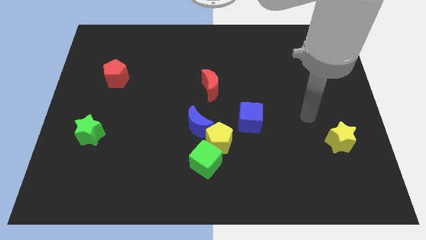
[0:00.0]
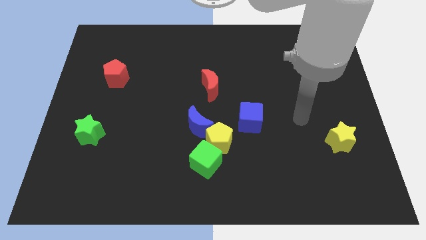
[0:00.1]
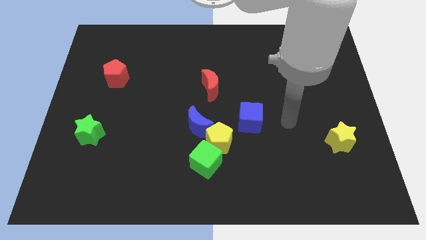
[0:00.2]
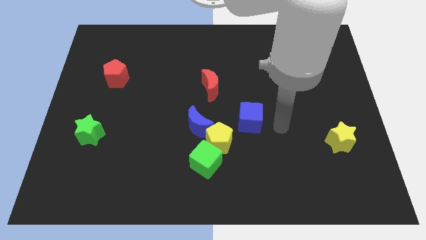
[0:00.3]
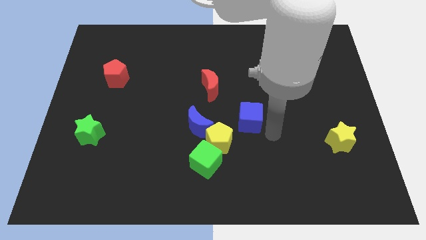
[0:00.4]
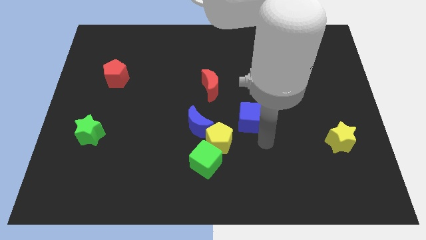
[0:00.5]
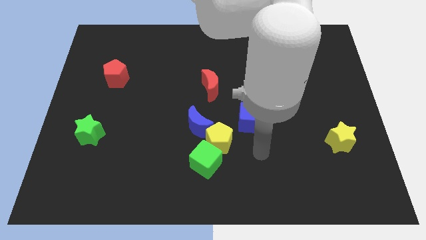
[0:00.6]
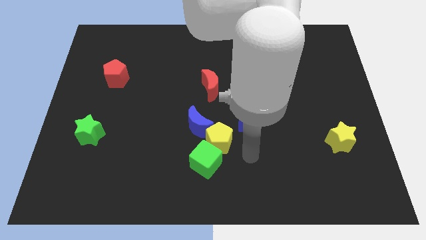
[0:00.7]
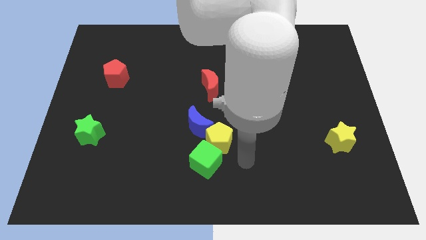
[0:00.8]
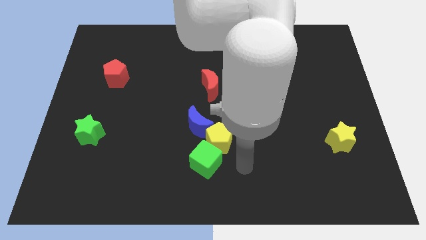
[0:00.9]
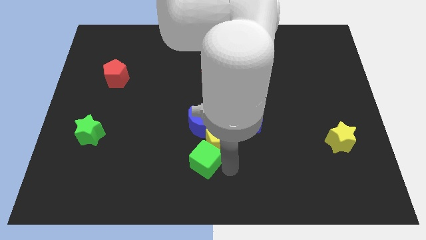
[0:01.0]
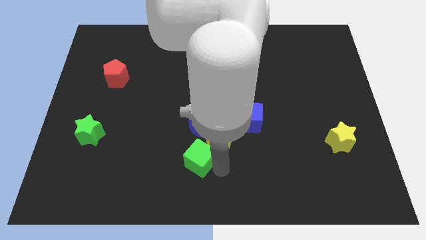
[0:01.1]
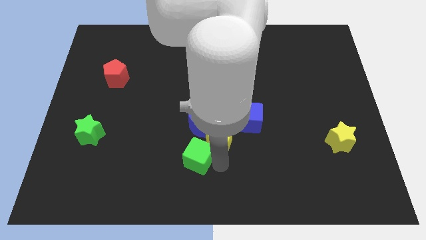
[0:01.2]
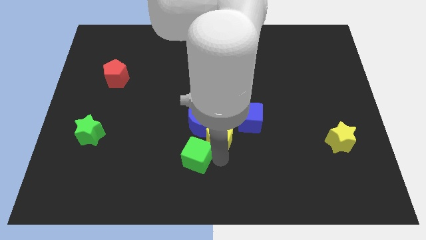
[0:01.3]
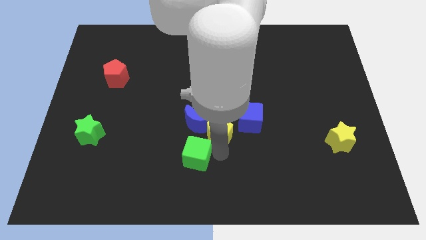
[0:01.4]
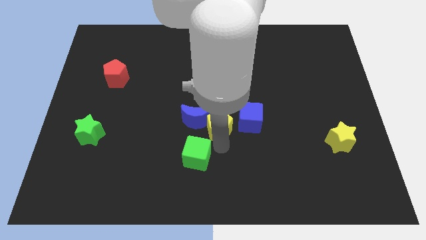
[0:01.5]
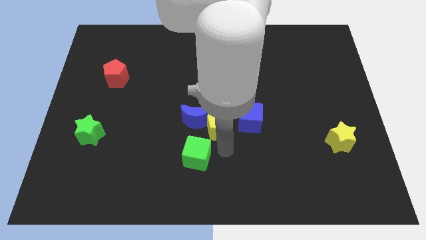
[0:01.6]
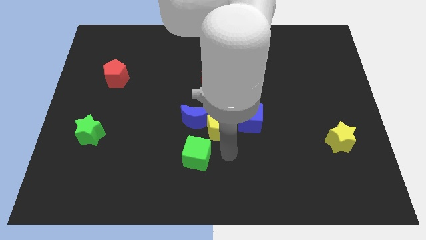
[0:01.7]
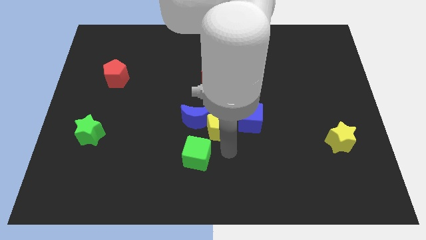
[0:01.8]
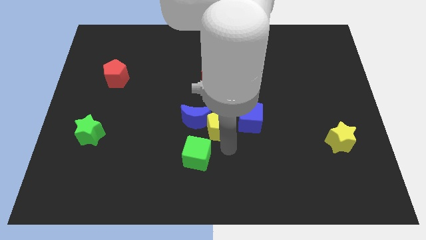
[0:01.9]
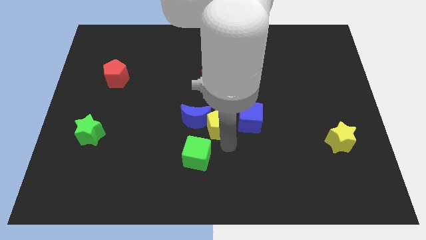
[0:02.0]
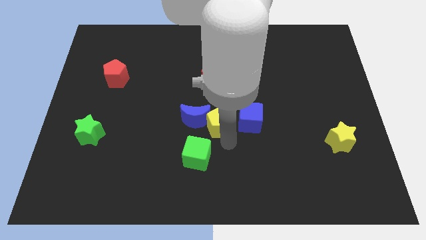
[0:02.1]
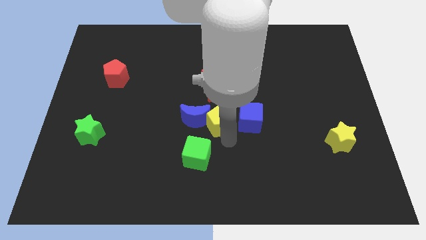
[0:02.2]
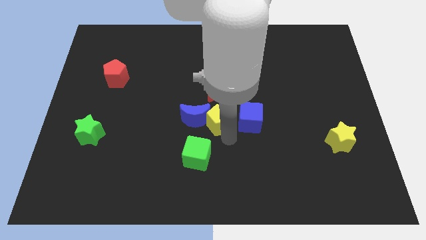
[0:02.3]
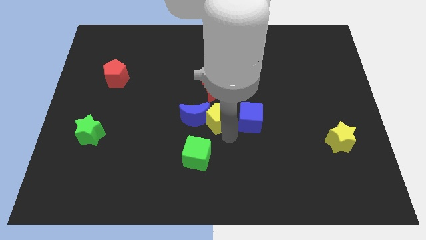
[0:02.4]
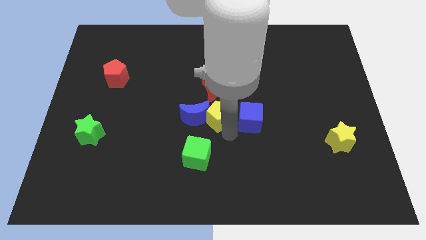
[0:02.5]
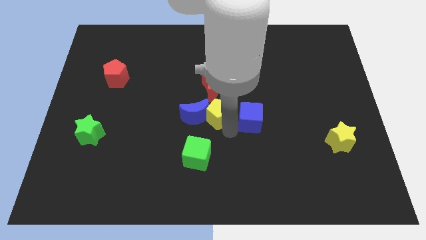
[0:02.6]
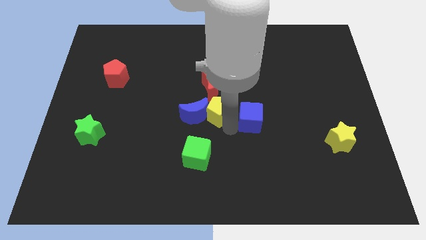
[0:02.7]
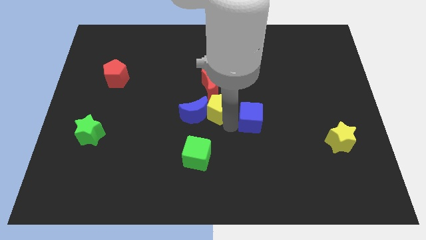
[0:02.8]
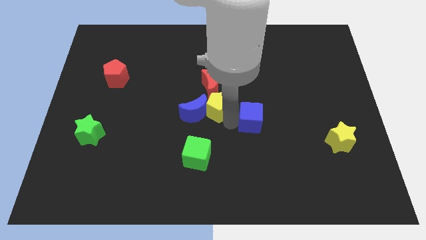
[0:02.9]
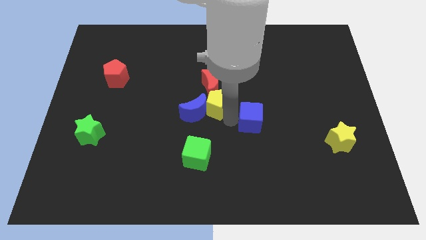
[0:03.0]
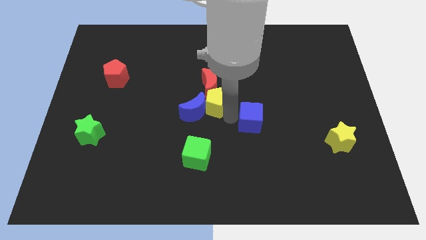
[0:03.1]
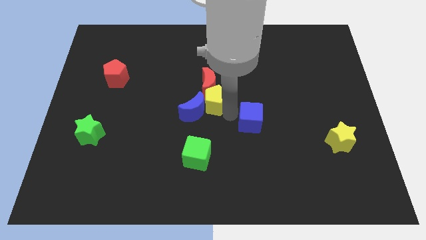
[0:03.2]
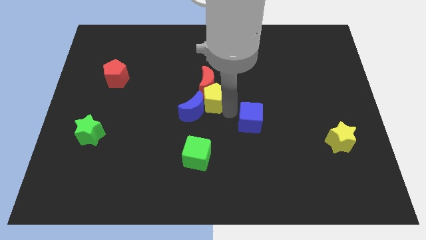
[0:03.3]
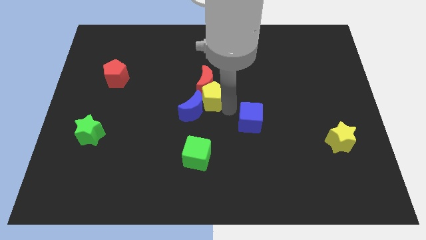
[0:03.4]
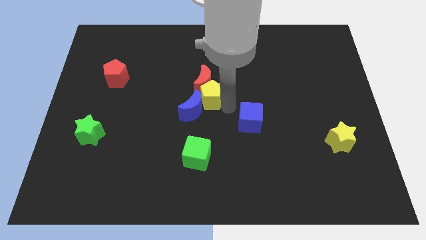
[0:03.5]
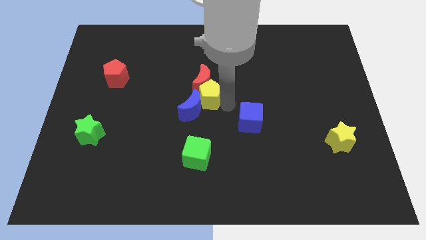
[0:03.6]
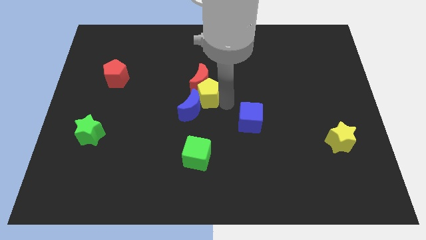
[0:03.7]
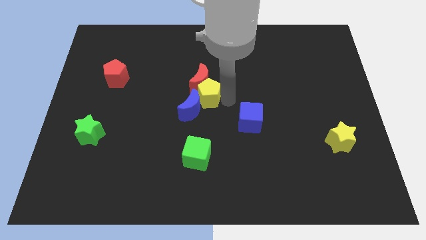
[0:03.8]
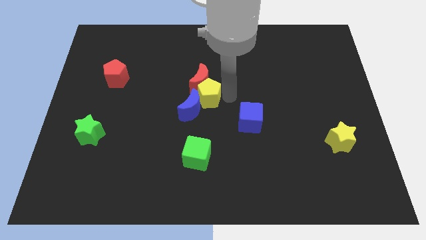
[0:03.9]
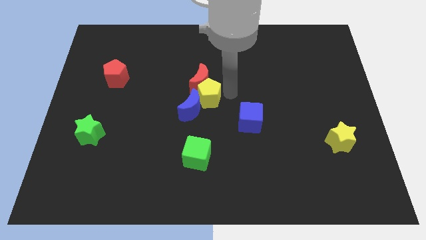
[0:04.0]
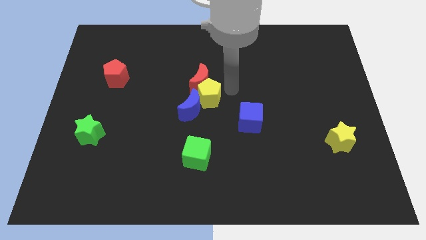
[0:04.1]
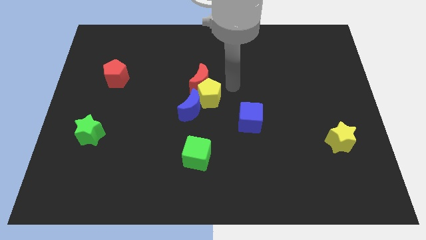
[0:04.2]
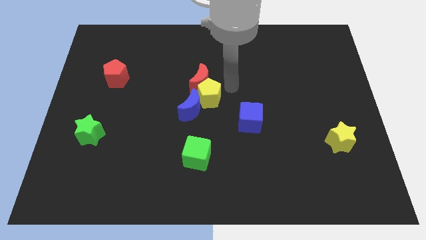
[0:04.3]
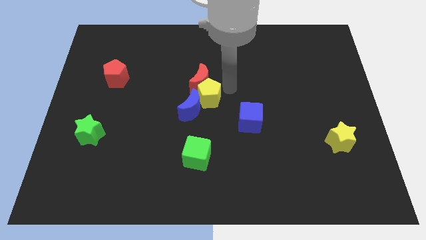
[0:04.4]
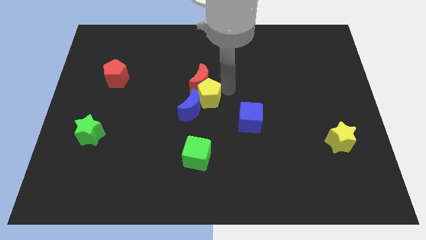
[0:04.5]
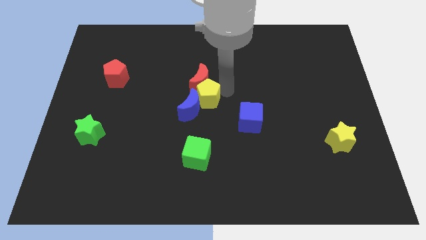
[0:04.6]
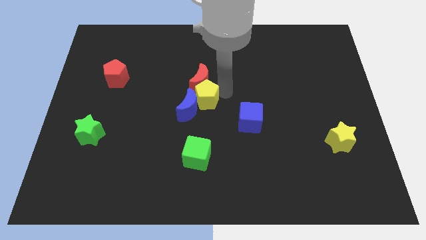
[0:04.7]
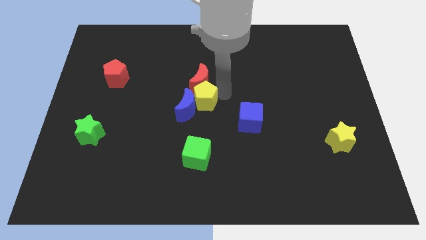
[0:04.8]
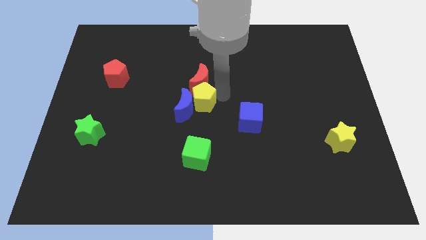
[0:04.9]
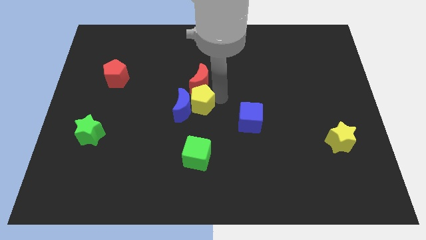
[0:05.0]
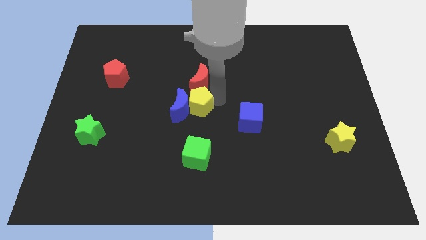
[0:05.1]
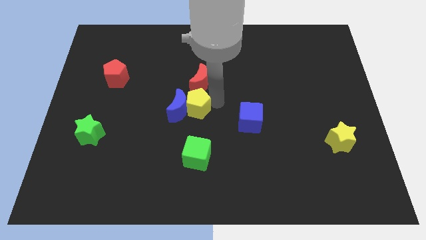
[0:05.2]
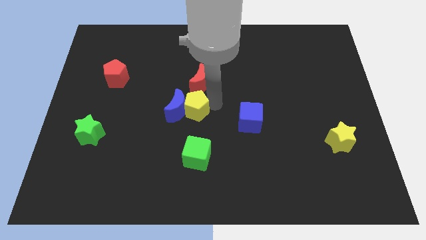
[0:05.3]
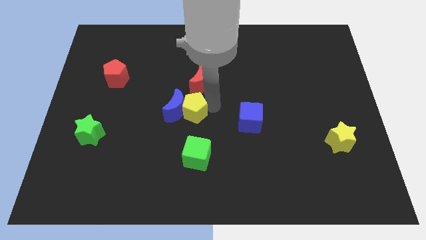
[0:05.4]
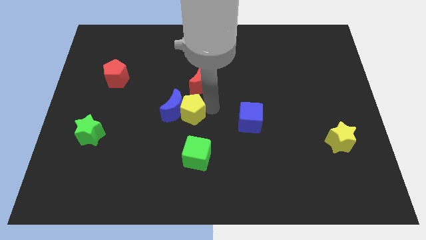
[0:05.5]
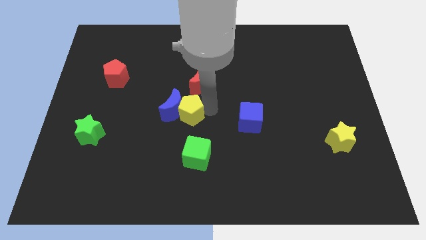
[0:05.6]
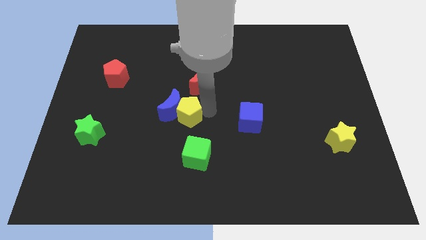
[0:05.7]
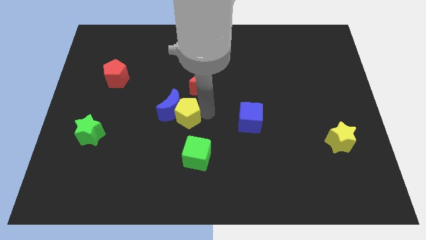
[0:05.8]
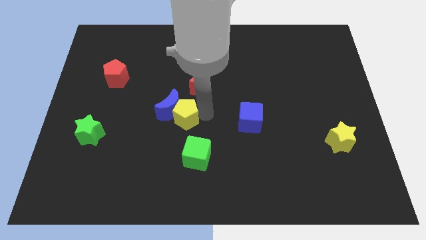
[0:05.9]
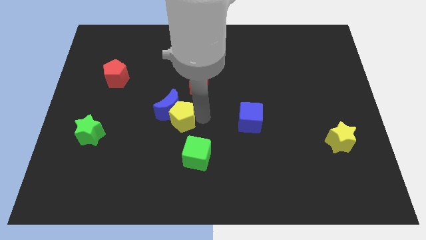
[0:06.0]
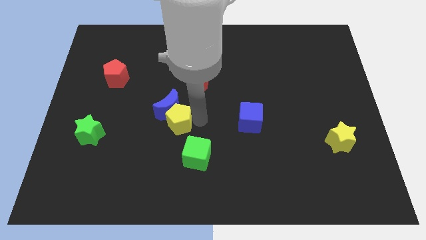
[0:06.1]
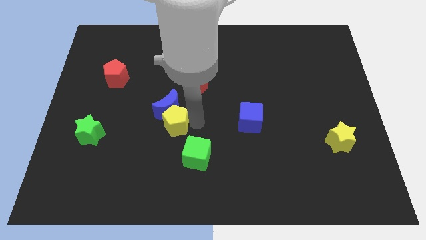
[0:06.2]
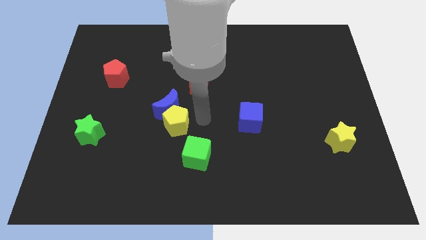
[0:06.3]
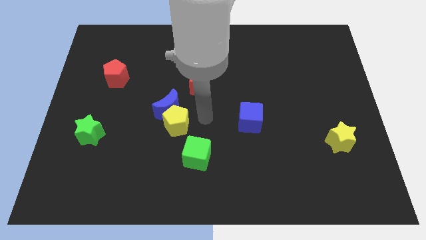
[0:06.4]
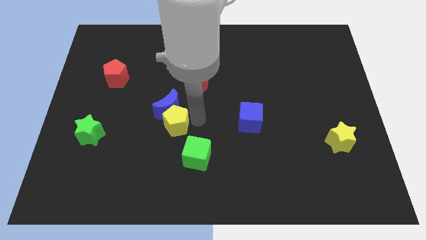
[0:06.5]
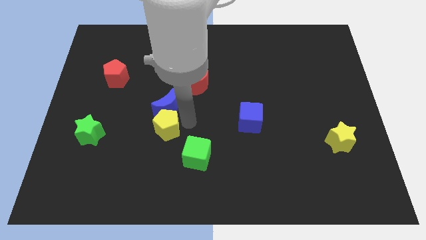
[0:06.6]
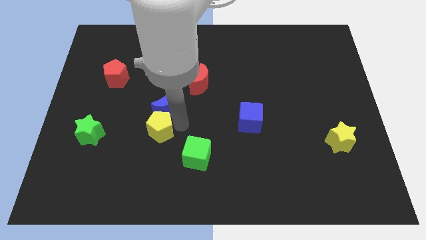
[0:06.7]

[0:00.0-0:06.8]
push the yellow pentagon to the right of the green star
